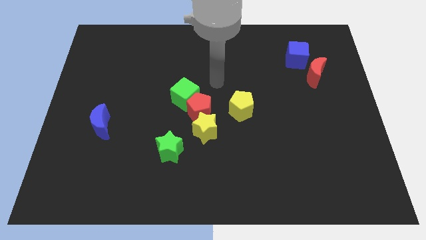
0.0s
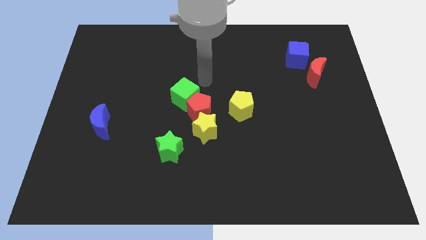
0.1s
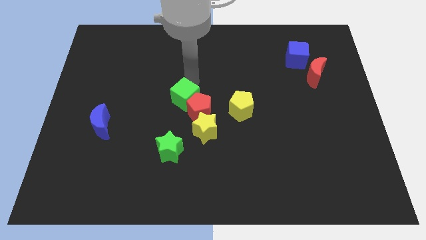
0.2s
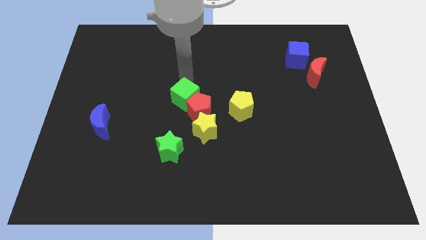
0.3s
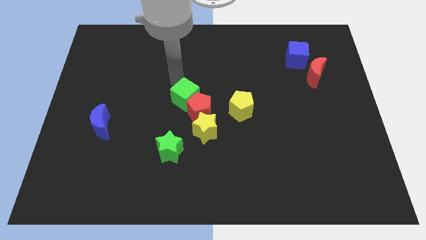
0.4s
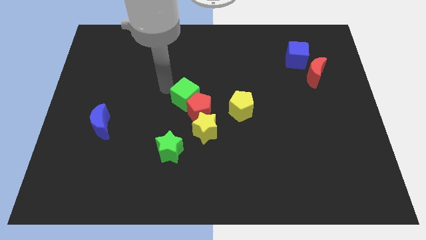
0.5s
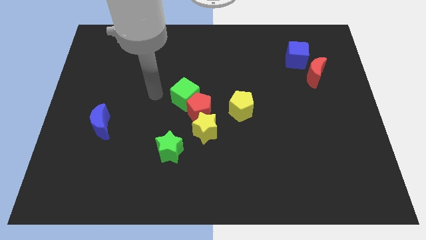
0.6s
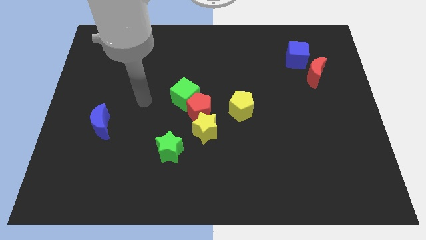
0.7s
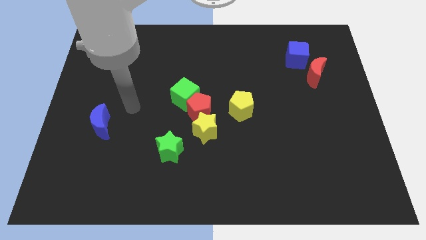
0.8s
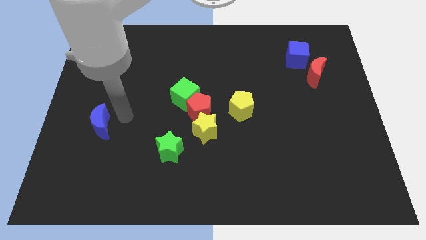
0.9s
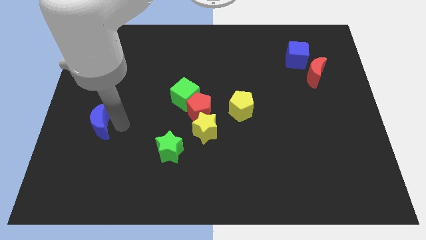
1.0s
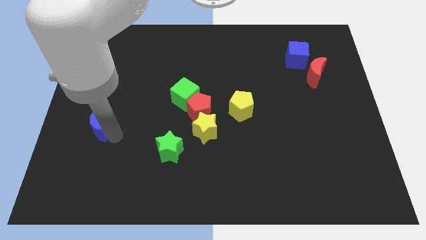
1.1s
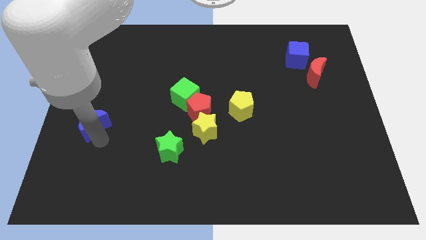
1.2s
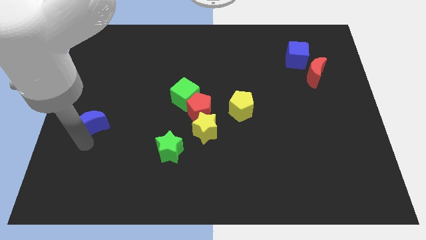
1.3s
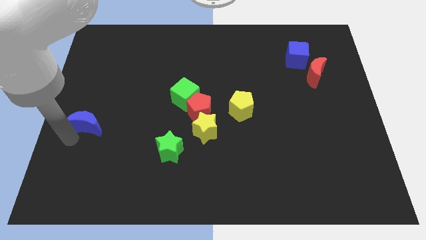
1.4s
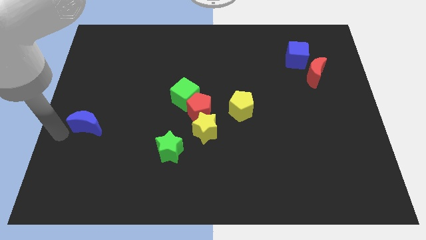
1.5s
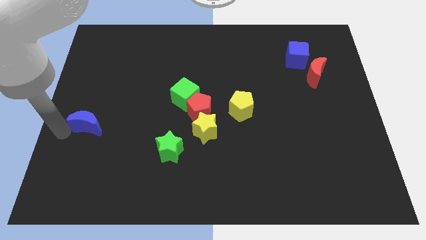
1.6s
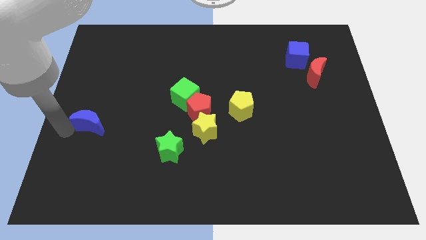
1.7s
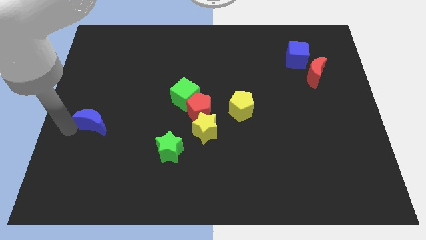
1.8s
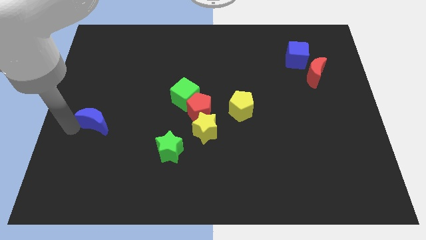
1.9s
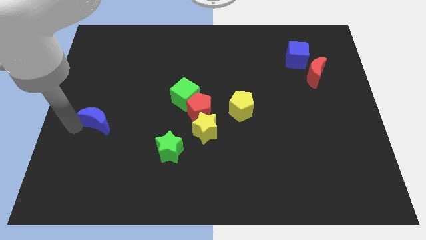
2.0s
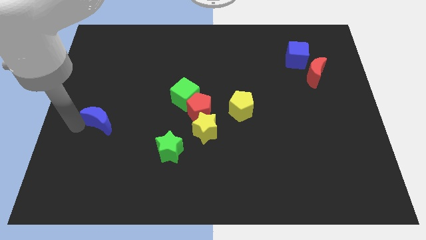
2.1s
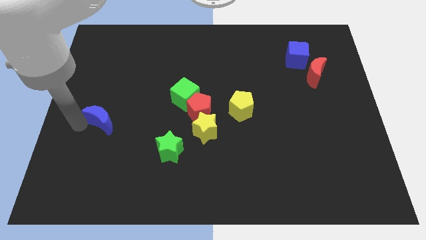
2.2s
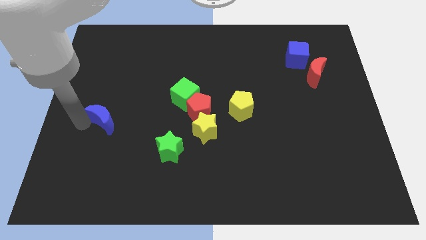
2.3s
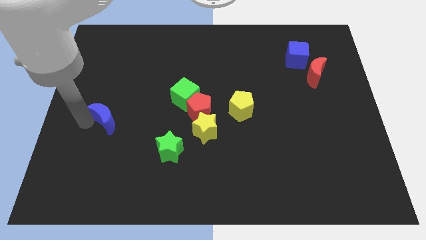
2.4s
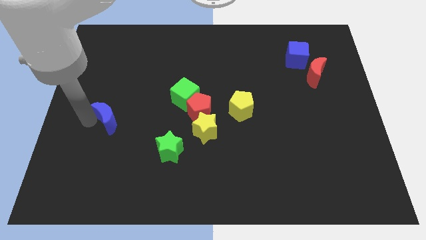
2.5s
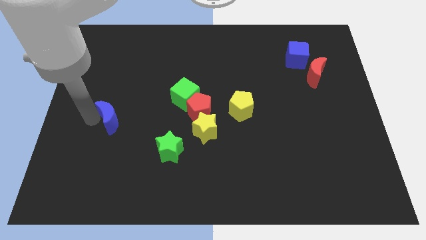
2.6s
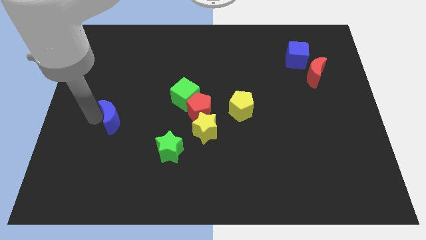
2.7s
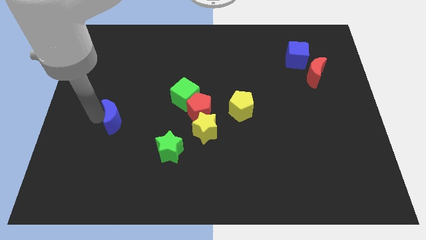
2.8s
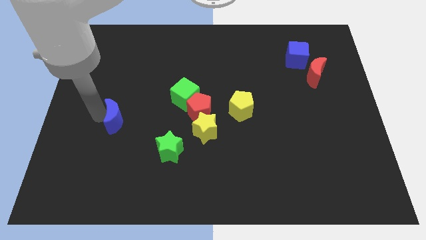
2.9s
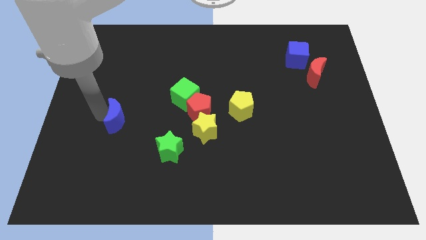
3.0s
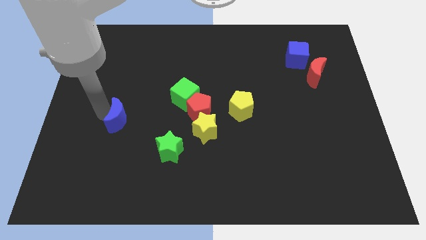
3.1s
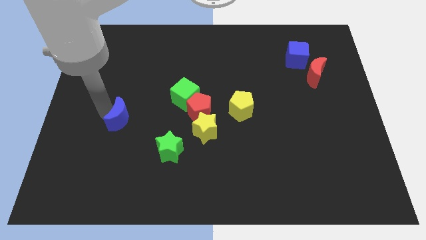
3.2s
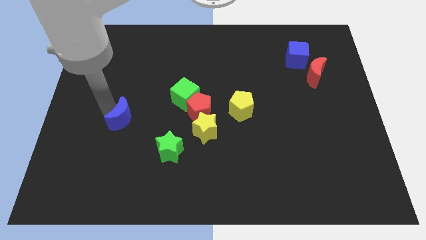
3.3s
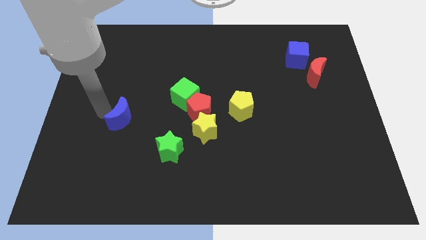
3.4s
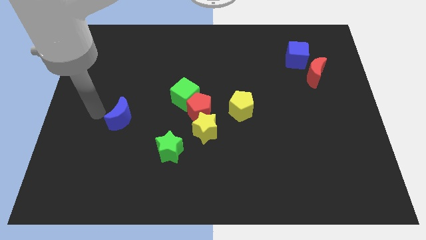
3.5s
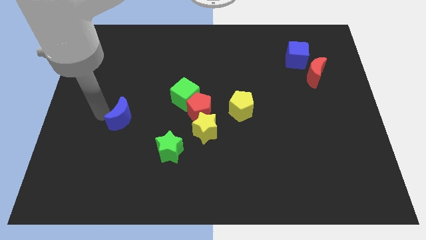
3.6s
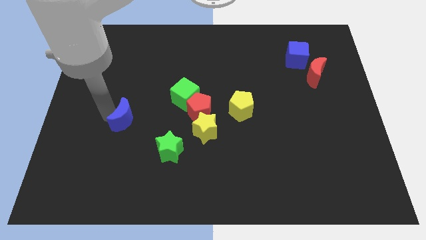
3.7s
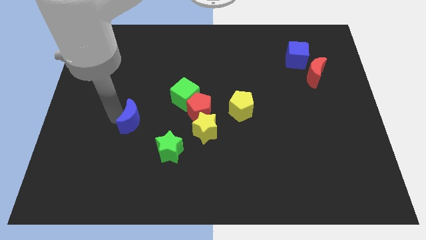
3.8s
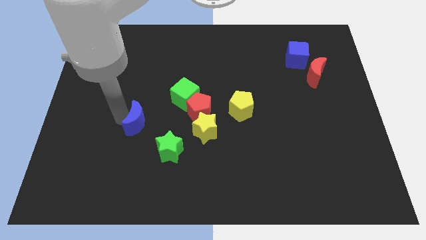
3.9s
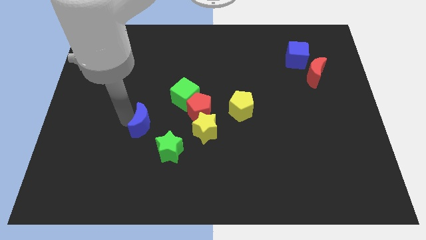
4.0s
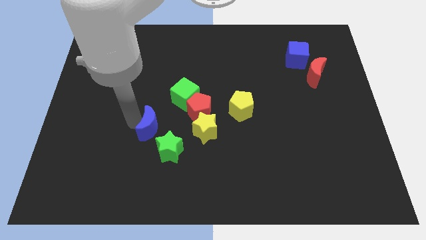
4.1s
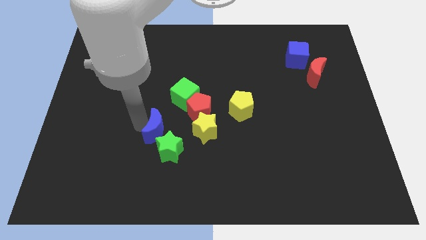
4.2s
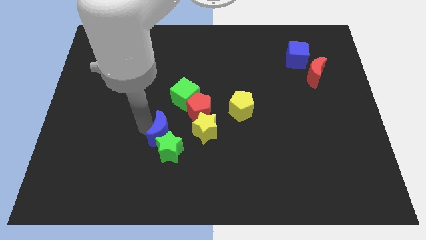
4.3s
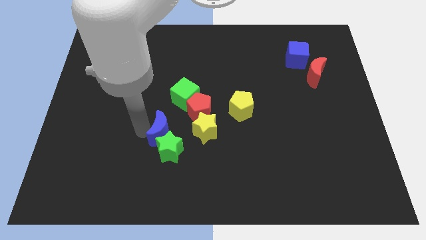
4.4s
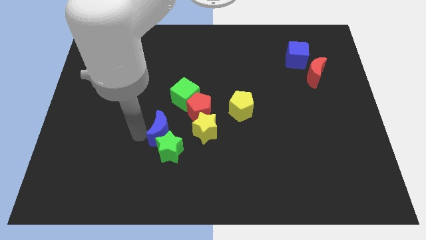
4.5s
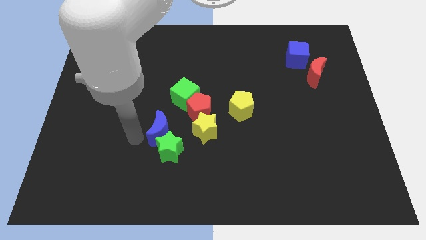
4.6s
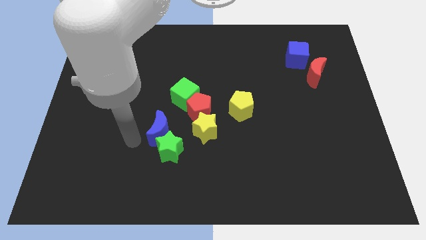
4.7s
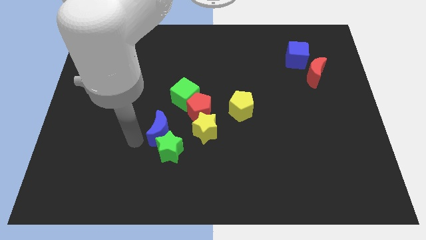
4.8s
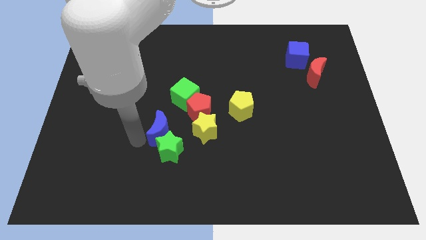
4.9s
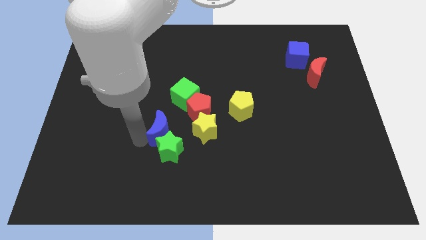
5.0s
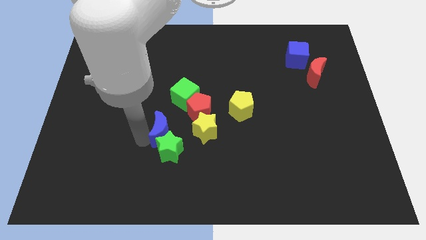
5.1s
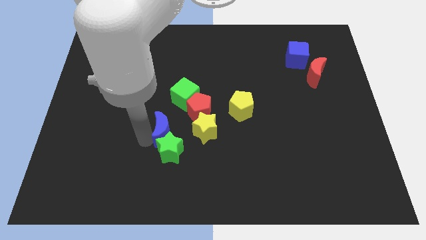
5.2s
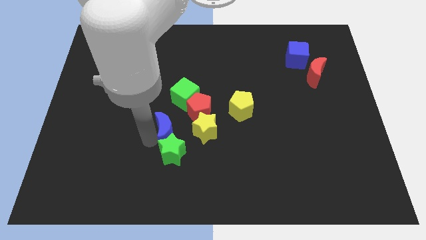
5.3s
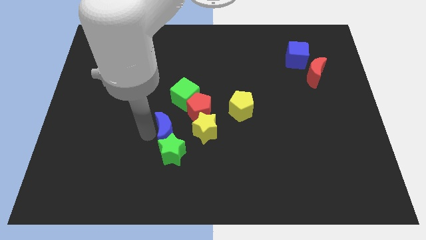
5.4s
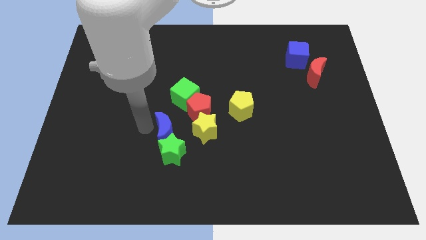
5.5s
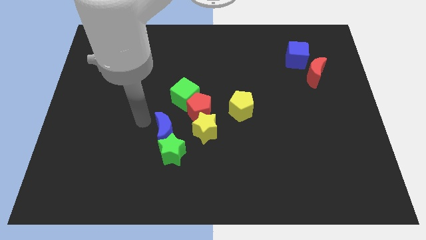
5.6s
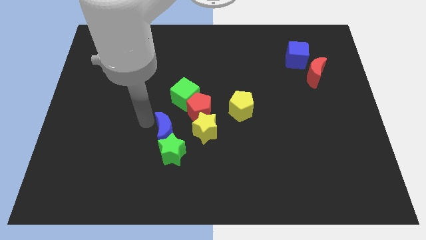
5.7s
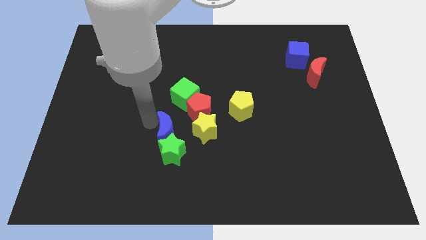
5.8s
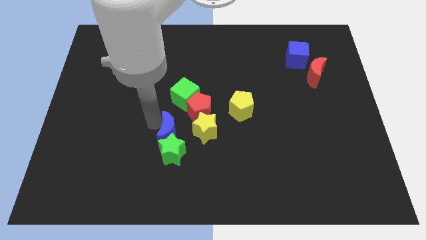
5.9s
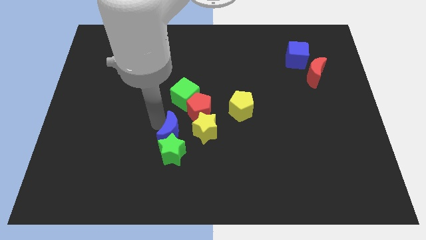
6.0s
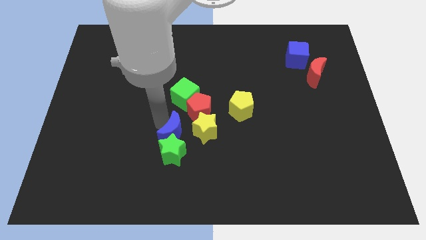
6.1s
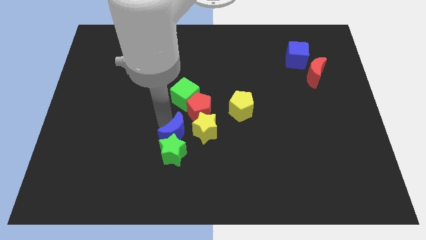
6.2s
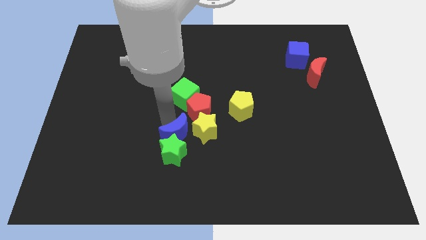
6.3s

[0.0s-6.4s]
move the blue moon below the red pentagon

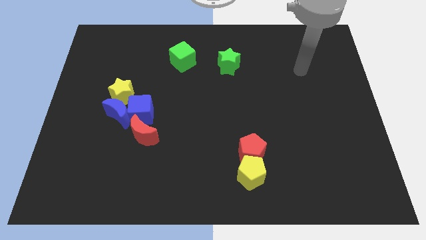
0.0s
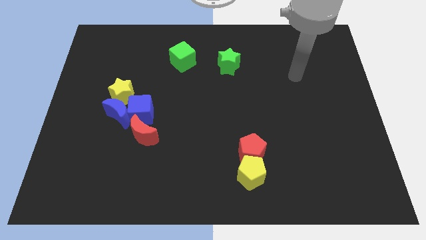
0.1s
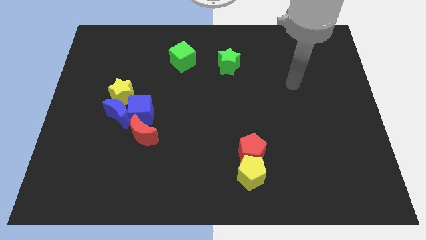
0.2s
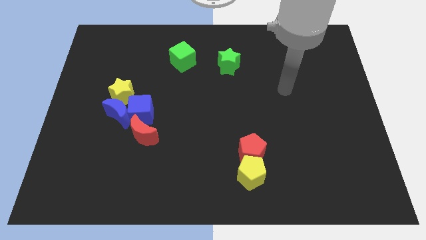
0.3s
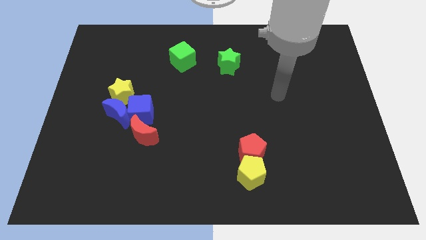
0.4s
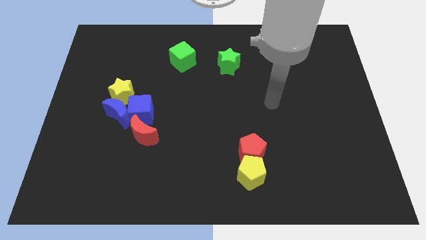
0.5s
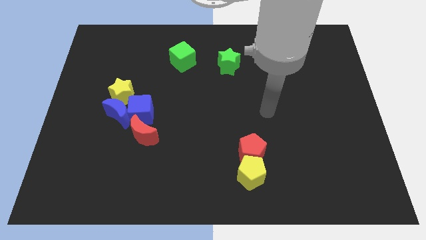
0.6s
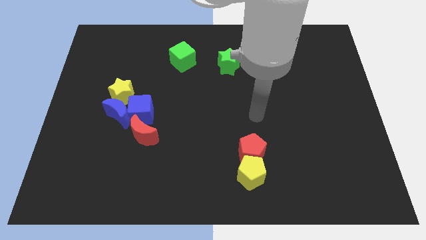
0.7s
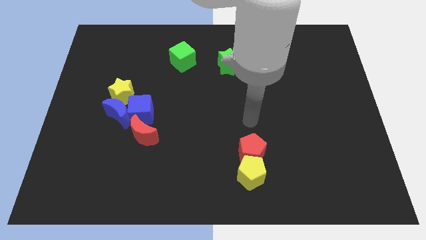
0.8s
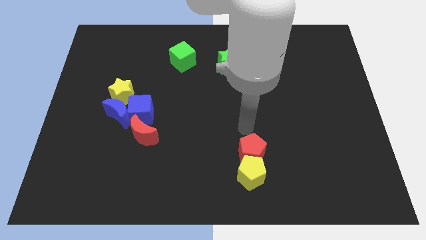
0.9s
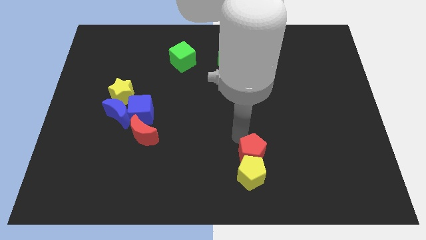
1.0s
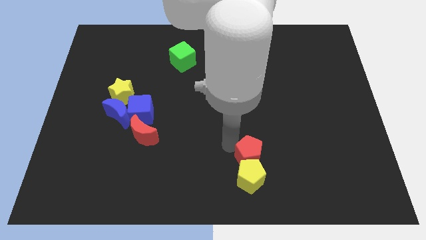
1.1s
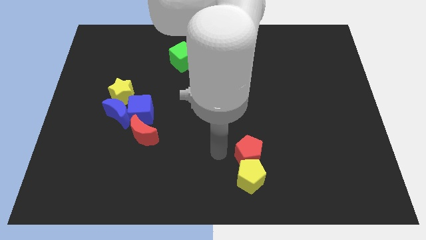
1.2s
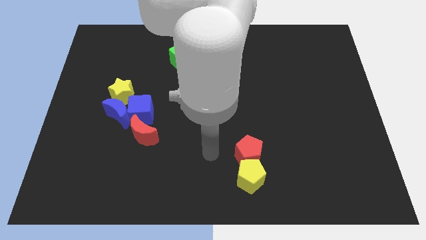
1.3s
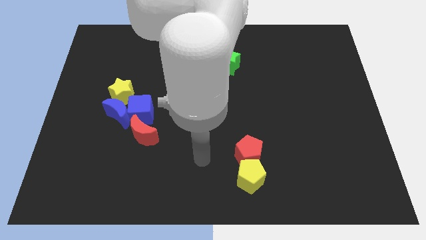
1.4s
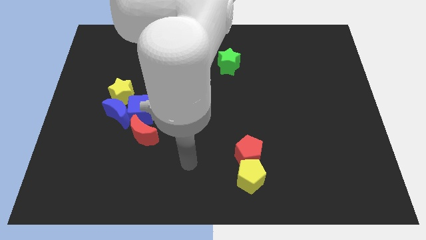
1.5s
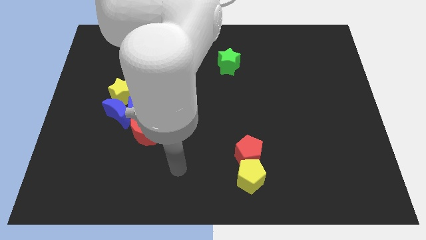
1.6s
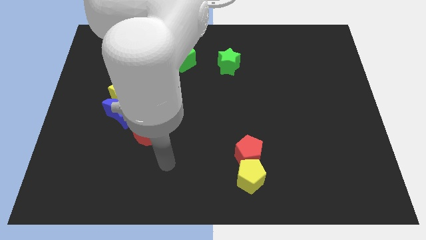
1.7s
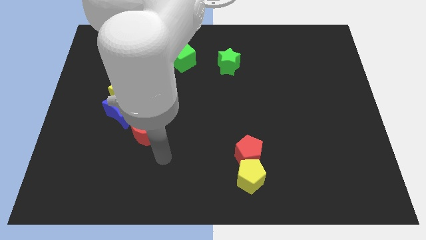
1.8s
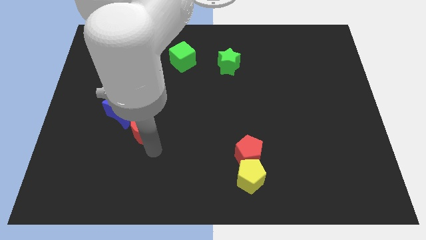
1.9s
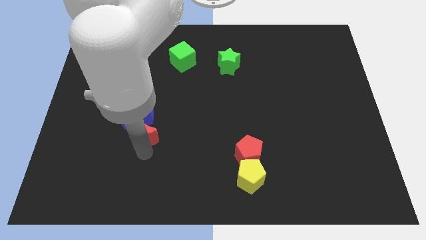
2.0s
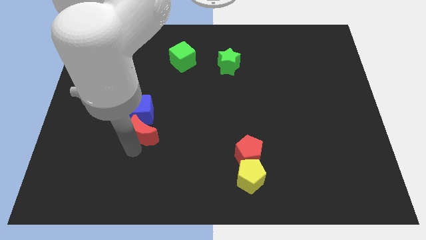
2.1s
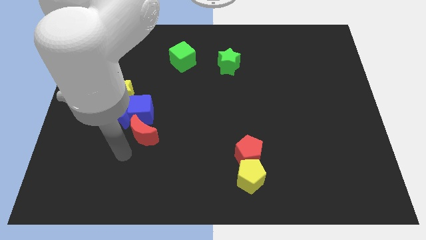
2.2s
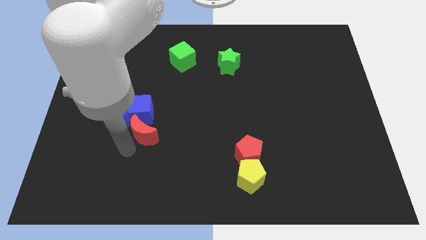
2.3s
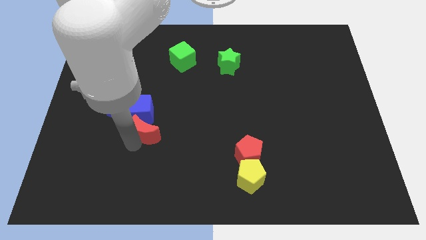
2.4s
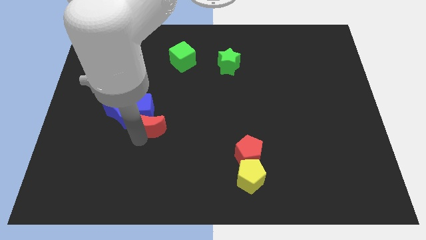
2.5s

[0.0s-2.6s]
move the red moon right of the blue moon
